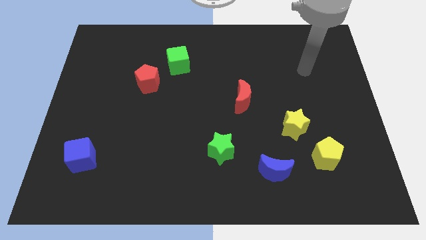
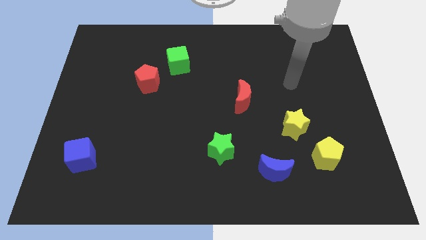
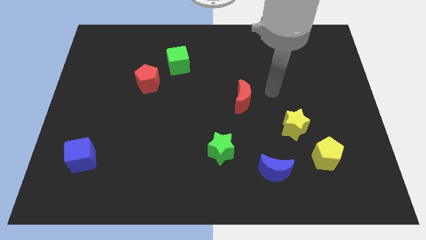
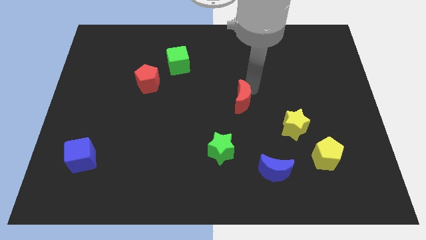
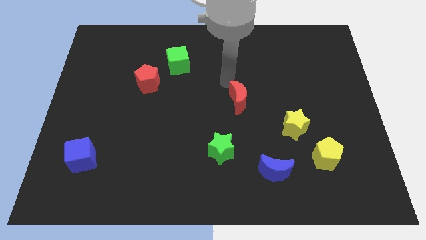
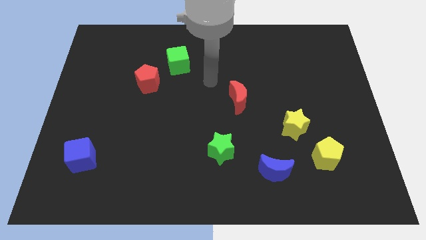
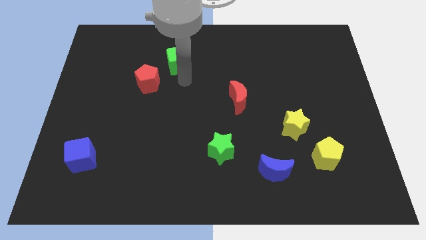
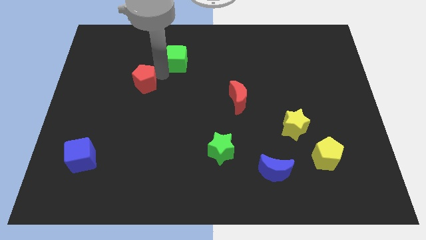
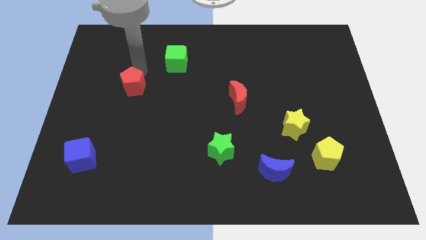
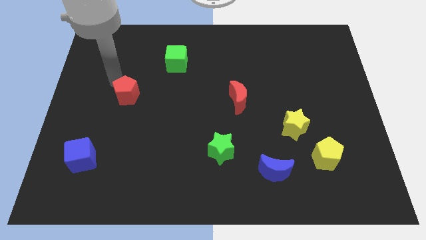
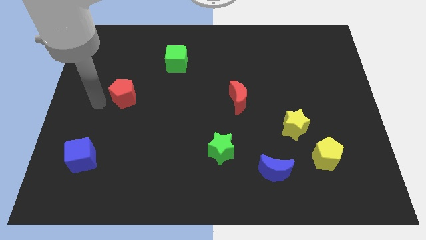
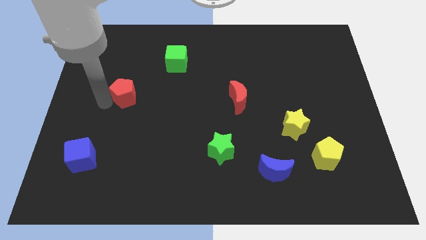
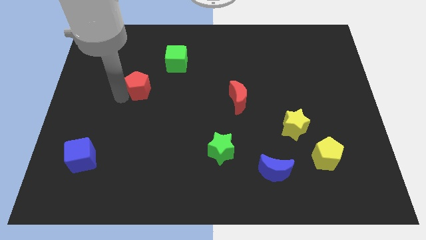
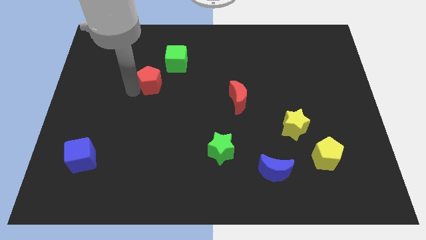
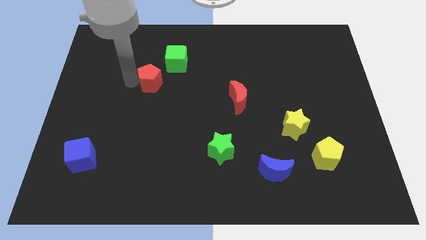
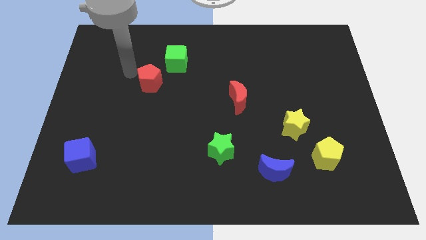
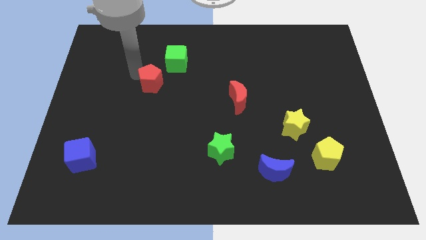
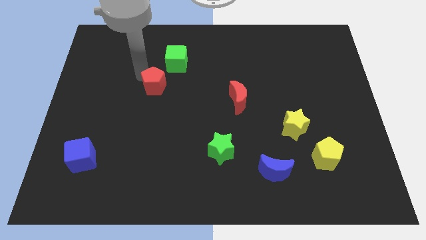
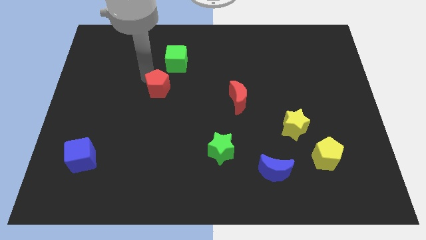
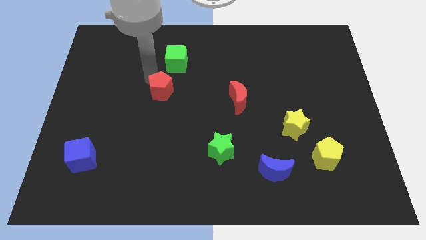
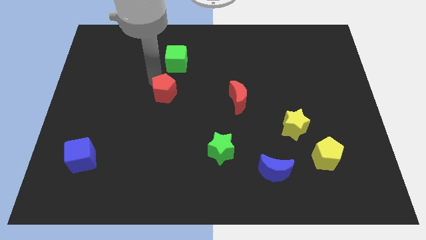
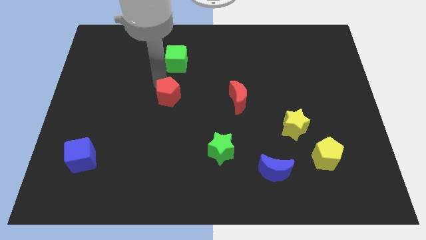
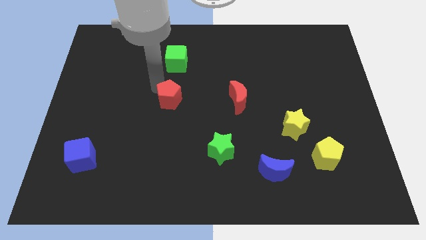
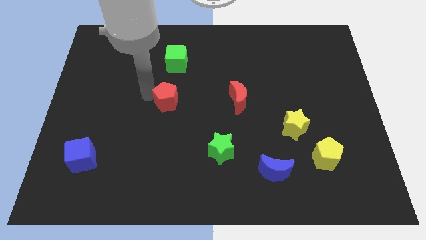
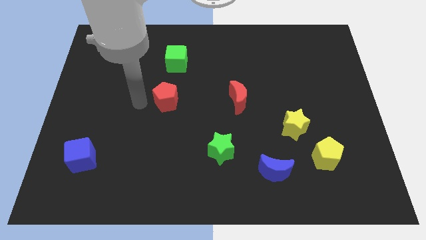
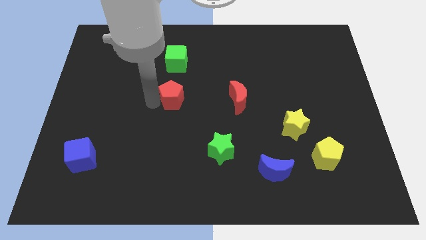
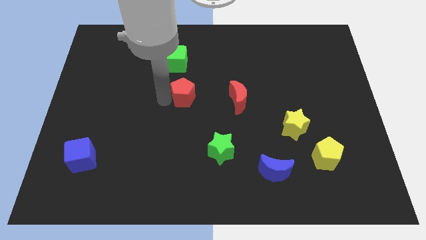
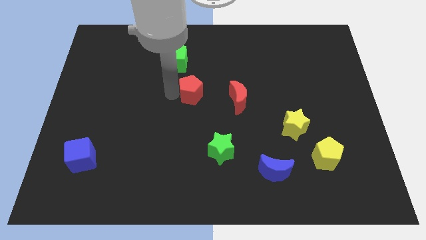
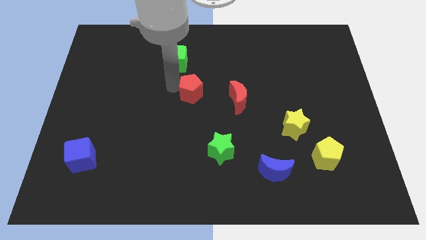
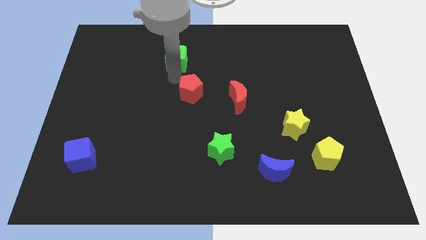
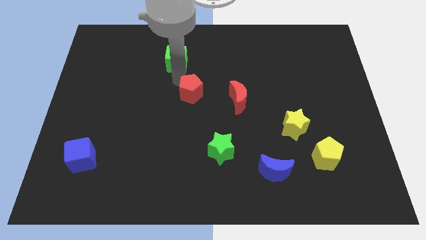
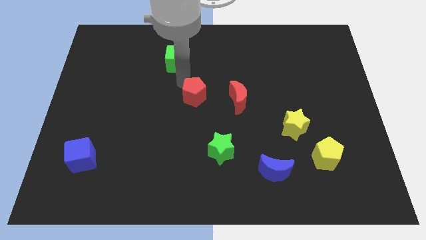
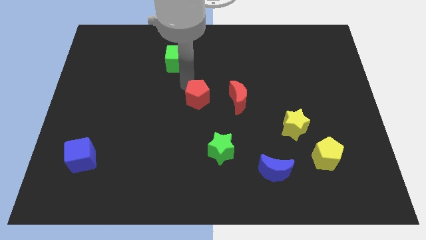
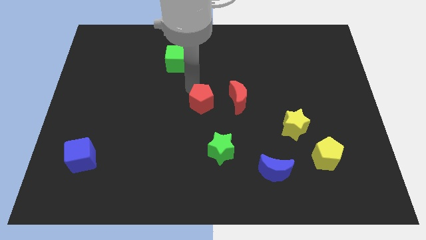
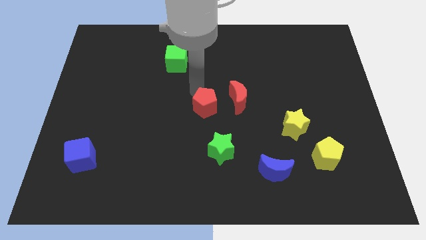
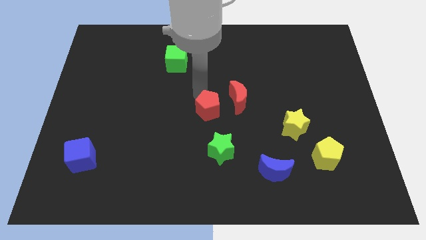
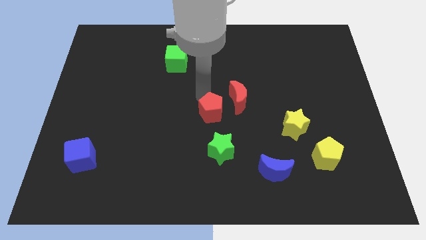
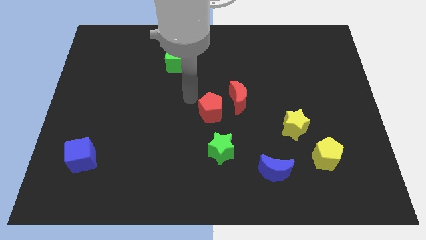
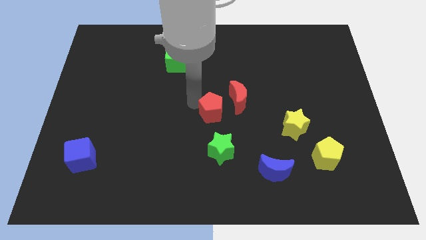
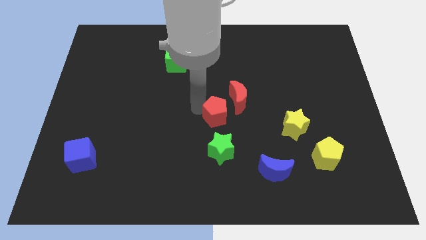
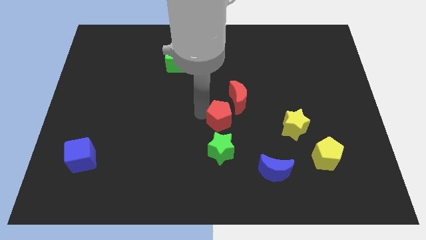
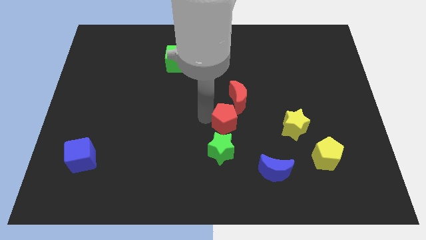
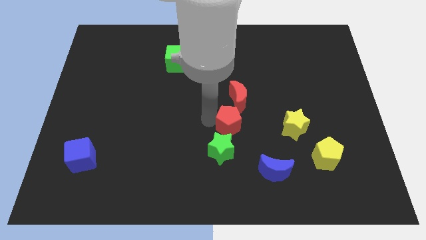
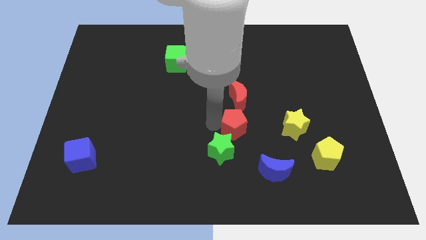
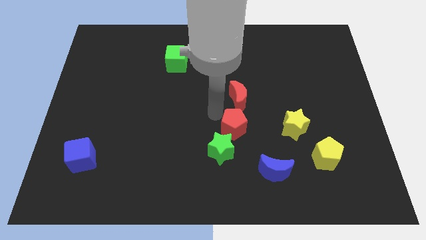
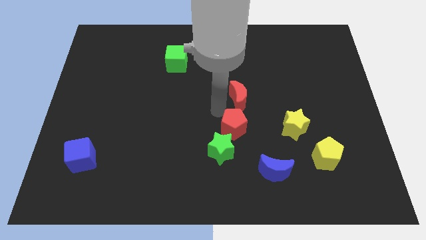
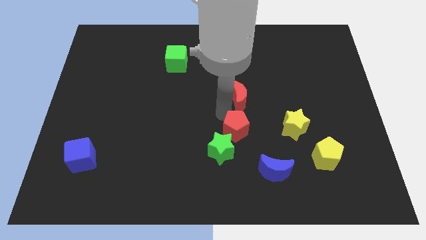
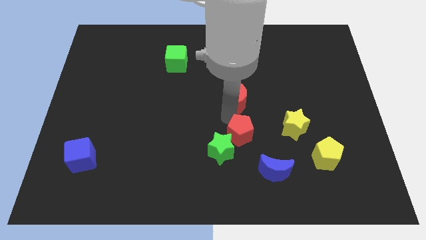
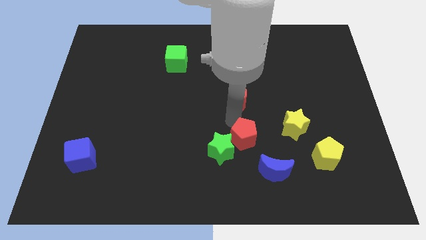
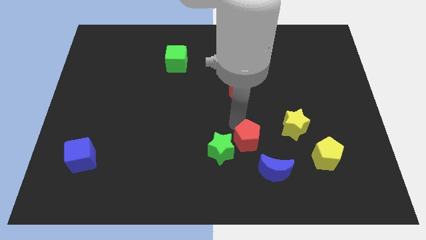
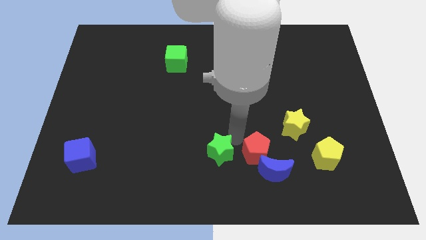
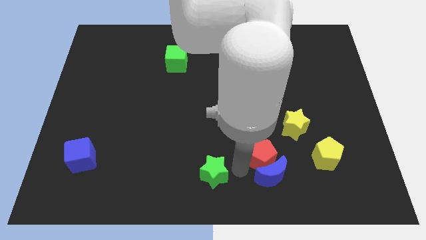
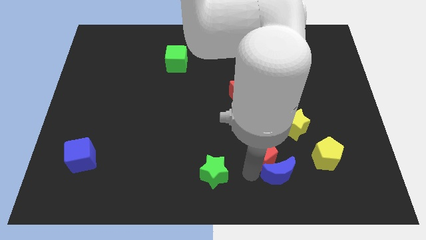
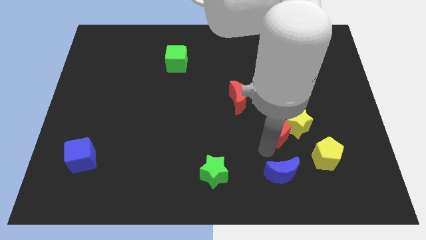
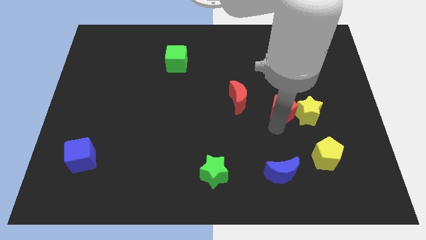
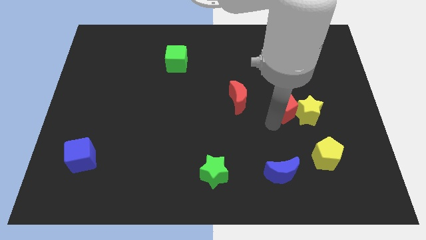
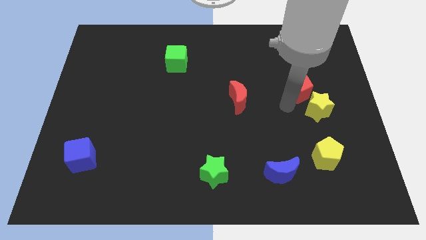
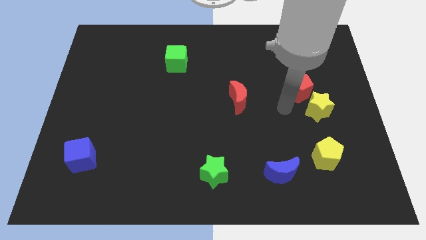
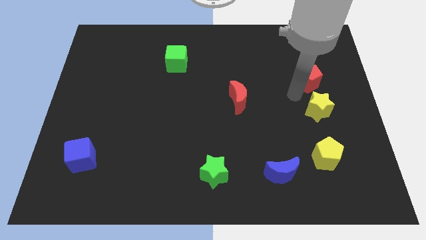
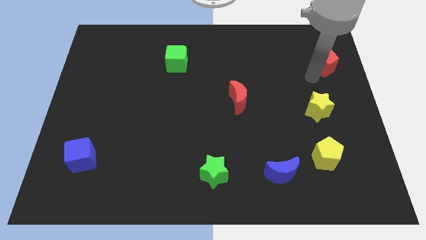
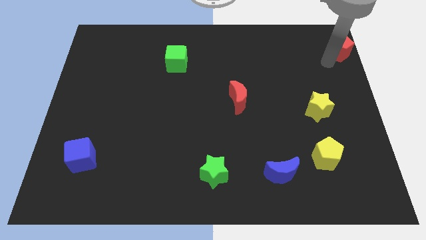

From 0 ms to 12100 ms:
slide the red pentagon to the upper right corner
